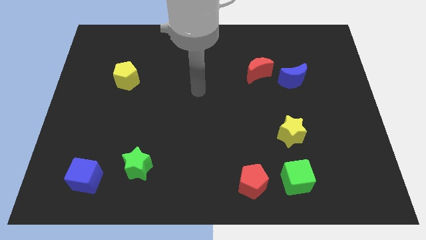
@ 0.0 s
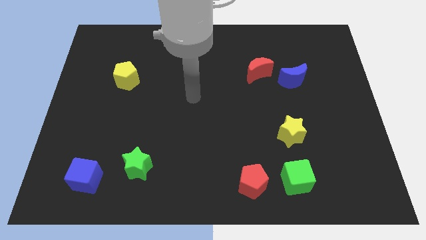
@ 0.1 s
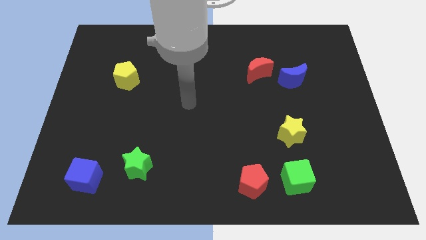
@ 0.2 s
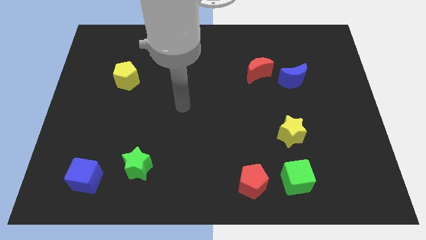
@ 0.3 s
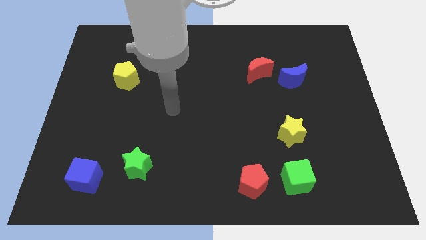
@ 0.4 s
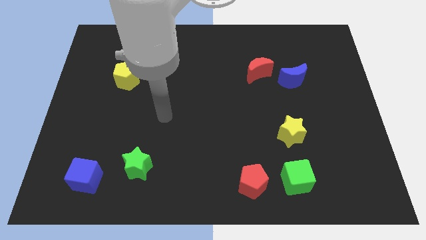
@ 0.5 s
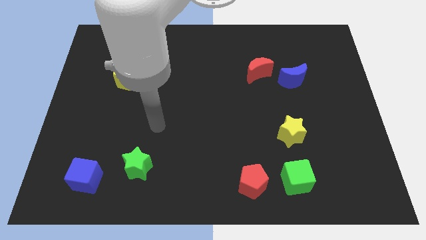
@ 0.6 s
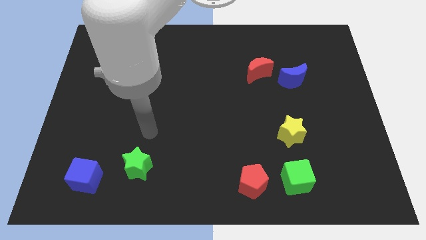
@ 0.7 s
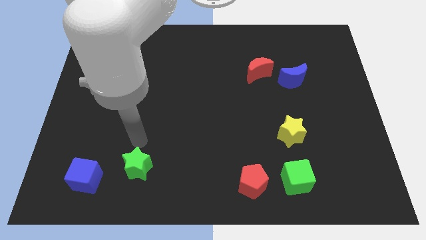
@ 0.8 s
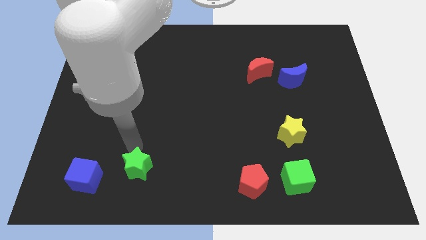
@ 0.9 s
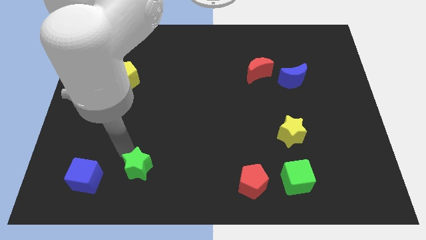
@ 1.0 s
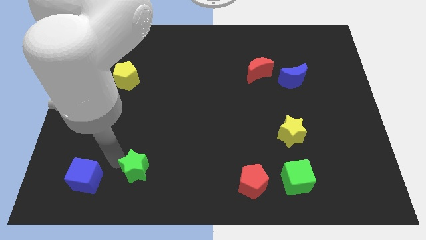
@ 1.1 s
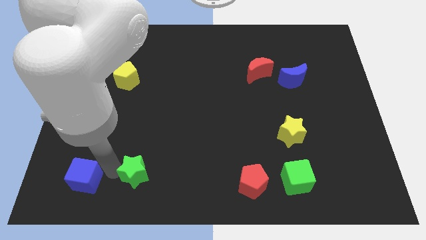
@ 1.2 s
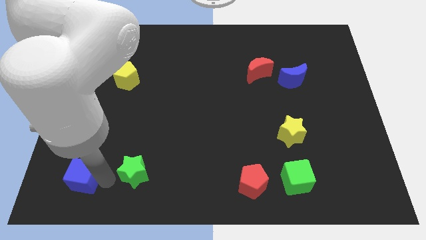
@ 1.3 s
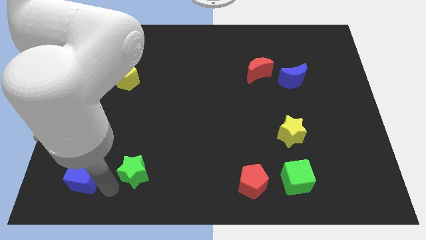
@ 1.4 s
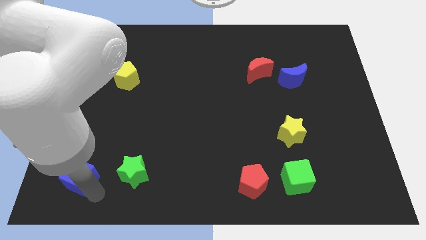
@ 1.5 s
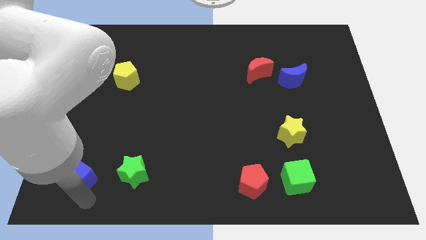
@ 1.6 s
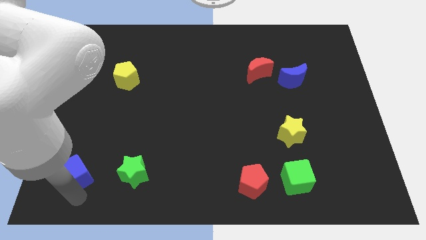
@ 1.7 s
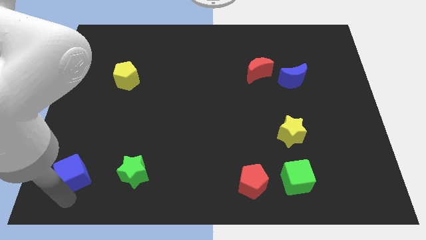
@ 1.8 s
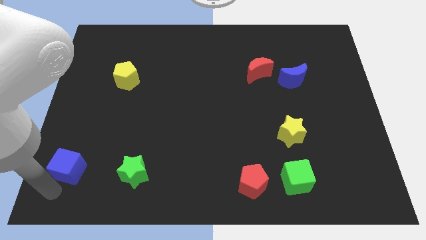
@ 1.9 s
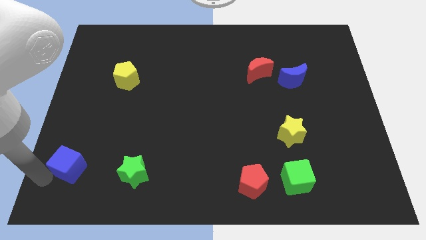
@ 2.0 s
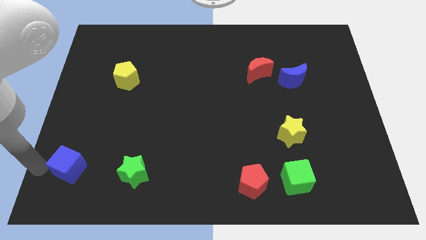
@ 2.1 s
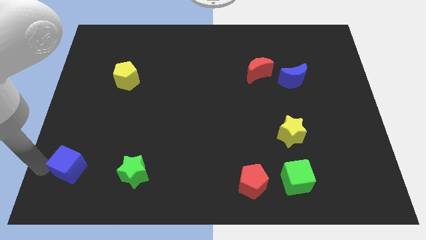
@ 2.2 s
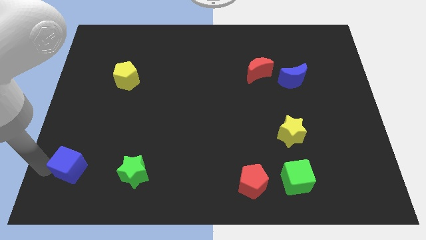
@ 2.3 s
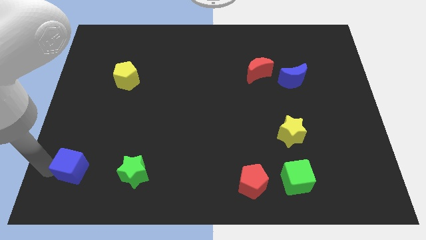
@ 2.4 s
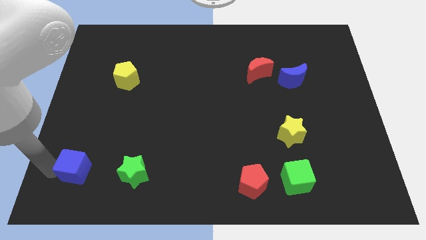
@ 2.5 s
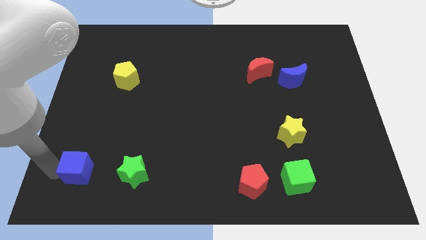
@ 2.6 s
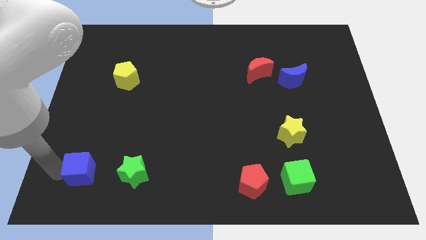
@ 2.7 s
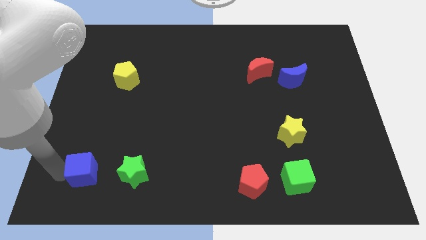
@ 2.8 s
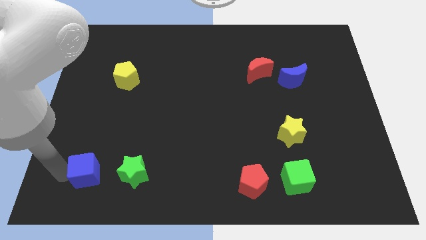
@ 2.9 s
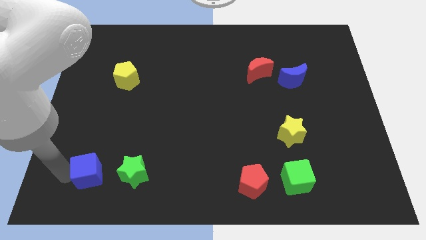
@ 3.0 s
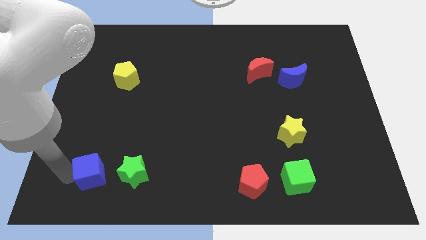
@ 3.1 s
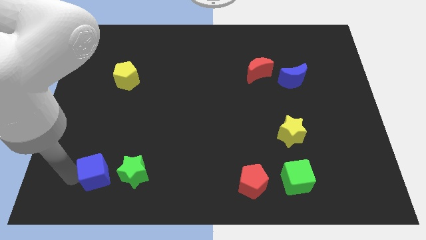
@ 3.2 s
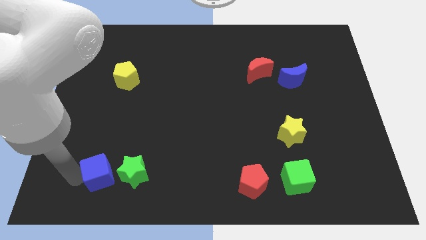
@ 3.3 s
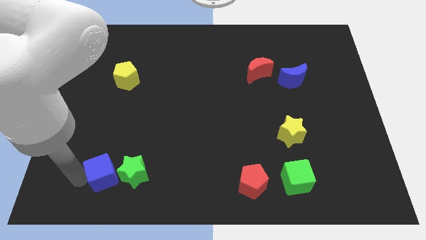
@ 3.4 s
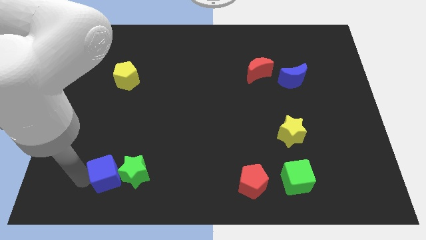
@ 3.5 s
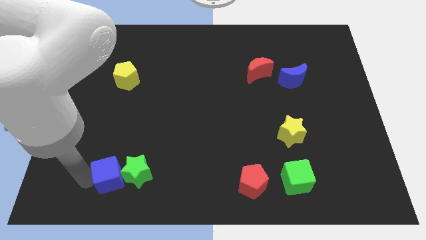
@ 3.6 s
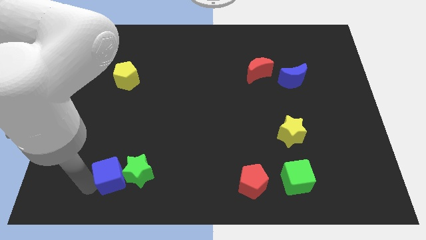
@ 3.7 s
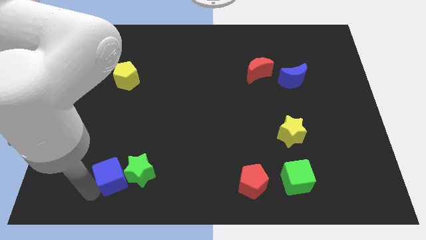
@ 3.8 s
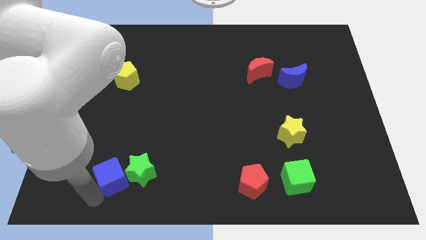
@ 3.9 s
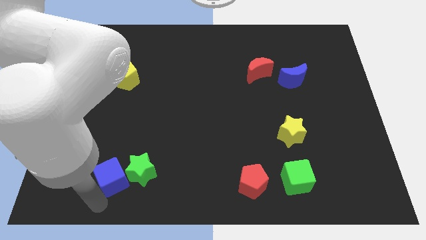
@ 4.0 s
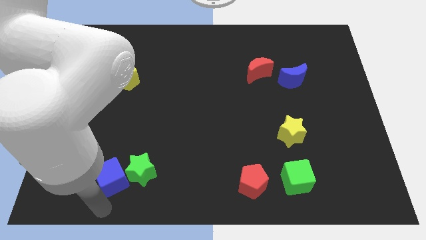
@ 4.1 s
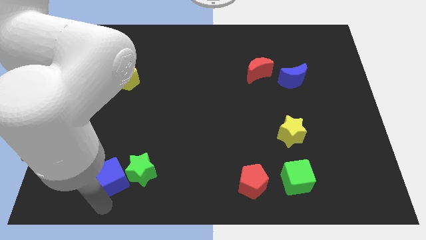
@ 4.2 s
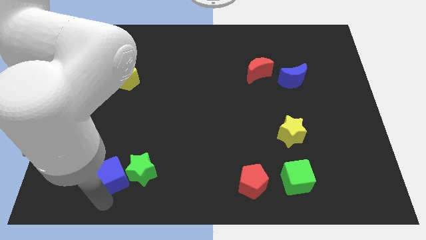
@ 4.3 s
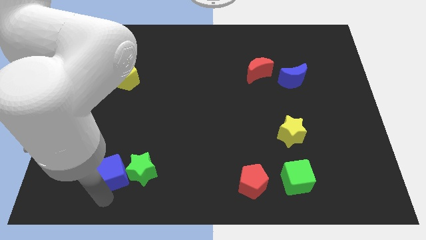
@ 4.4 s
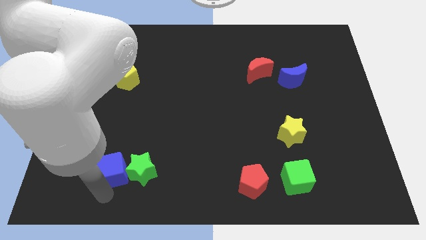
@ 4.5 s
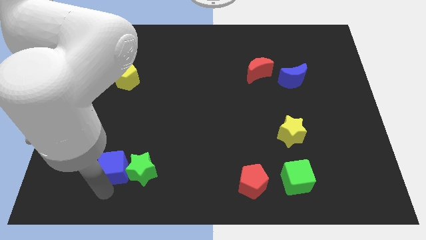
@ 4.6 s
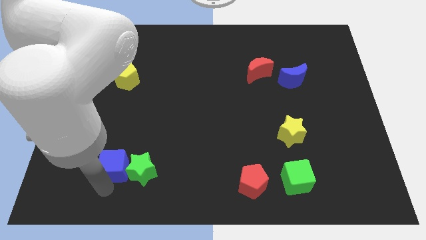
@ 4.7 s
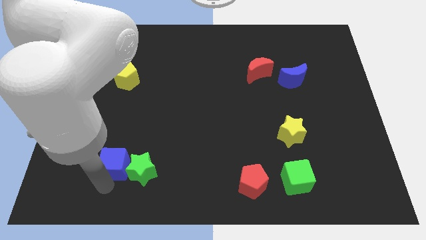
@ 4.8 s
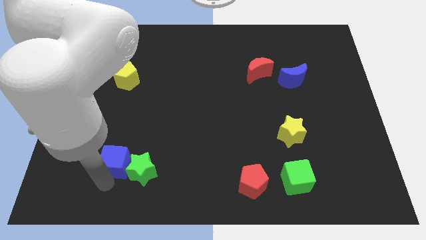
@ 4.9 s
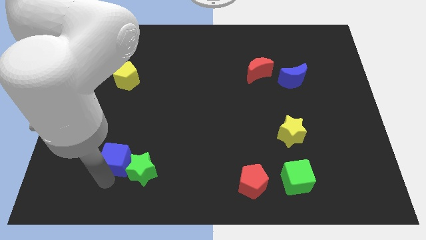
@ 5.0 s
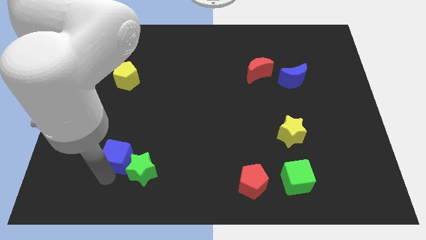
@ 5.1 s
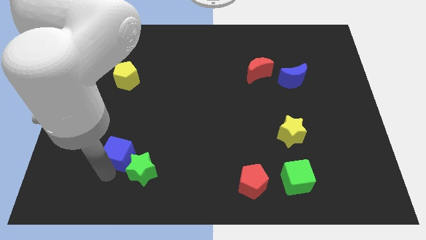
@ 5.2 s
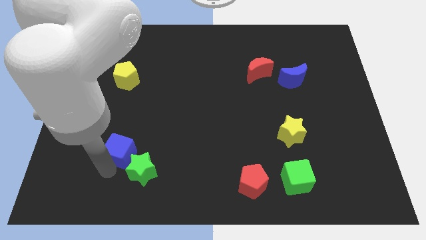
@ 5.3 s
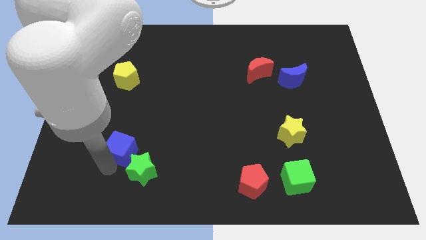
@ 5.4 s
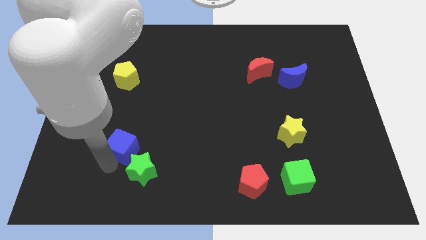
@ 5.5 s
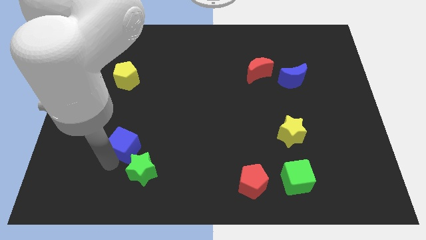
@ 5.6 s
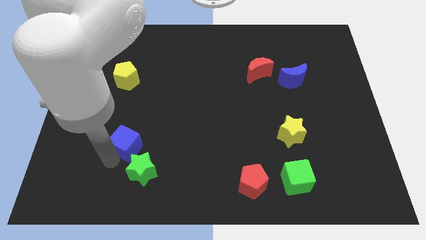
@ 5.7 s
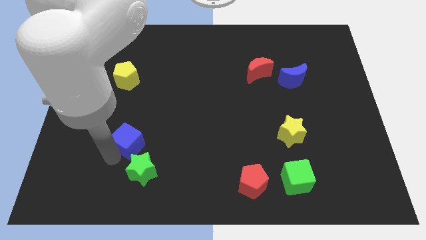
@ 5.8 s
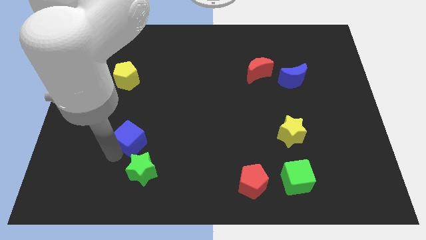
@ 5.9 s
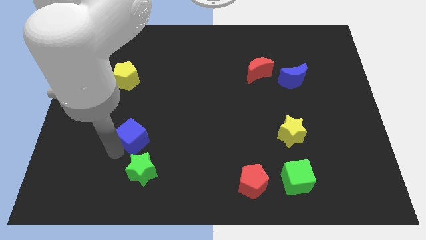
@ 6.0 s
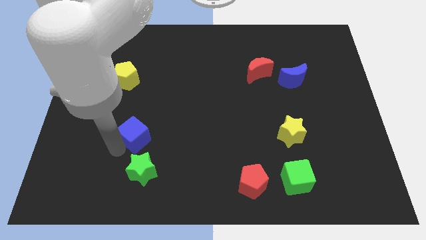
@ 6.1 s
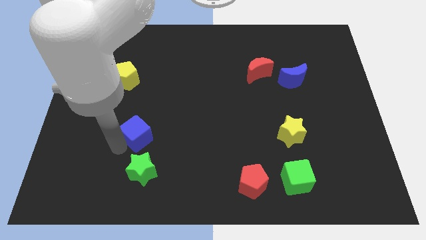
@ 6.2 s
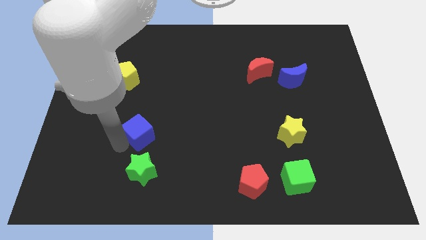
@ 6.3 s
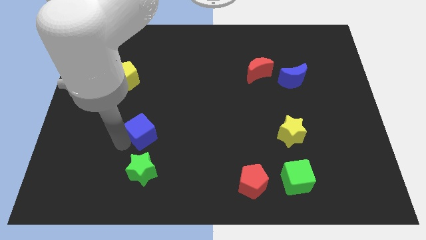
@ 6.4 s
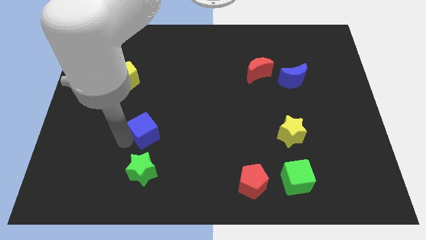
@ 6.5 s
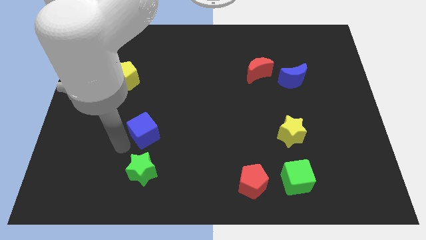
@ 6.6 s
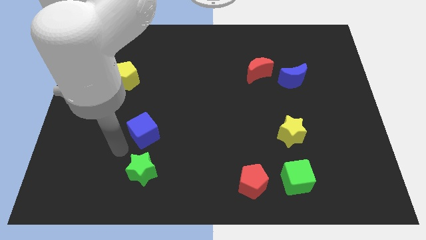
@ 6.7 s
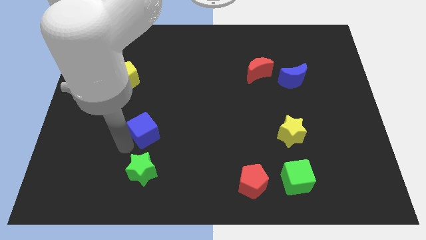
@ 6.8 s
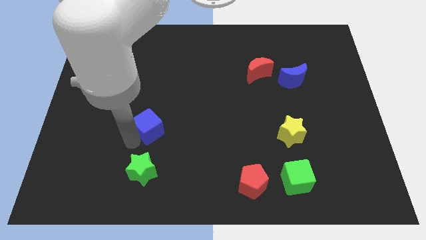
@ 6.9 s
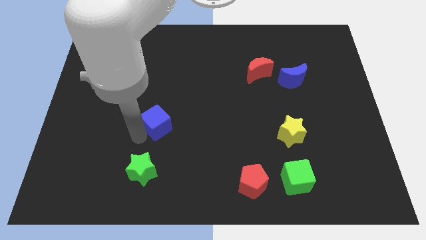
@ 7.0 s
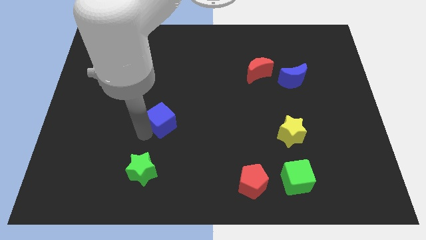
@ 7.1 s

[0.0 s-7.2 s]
slide the blue cube diagonally up and right

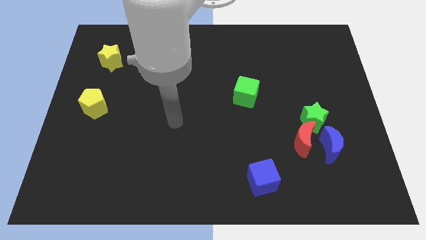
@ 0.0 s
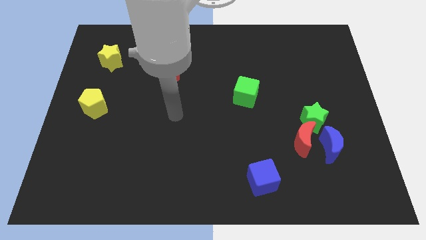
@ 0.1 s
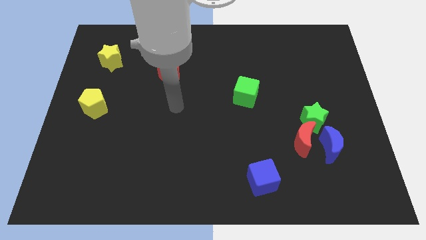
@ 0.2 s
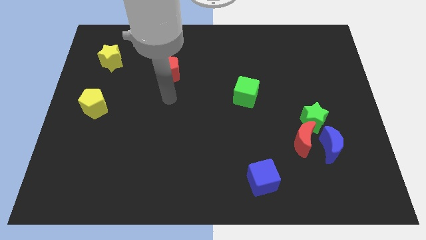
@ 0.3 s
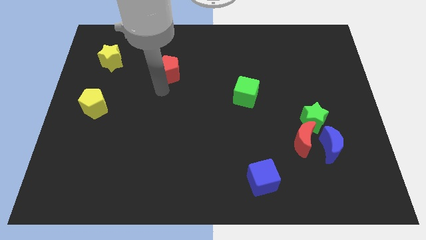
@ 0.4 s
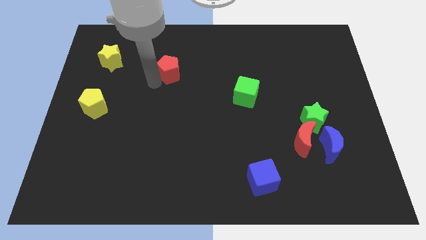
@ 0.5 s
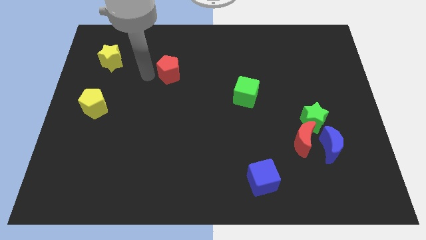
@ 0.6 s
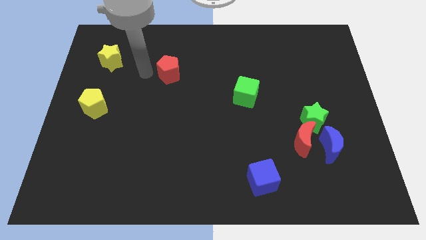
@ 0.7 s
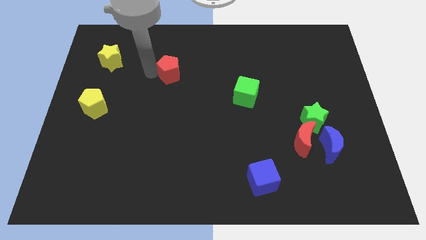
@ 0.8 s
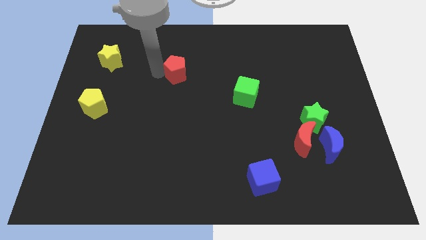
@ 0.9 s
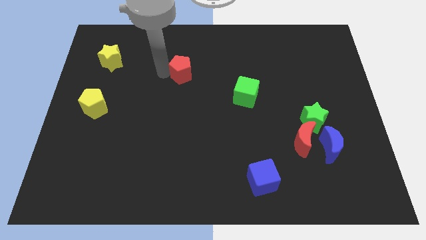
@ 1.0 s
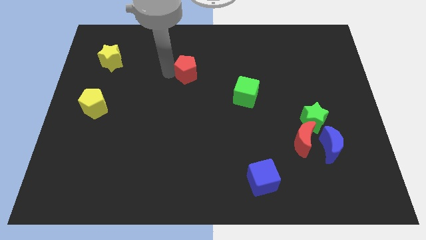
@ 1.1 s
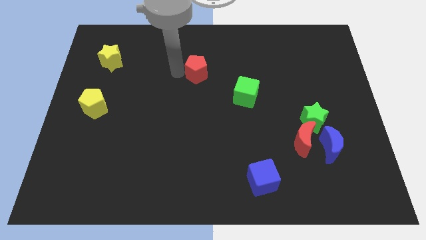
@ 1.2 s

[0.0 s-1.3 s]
move the red pentagon somewhat to the right
